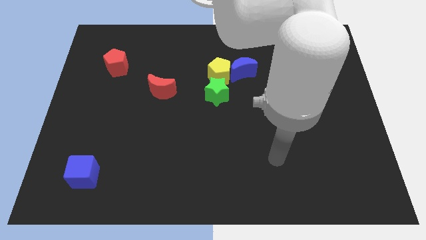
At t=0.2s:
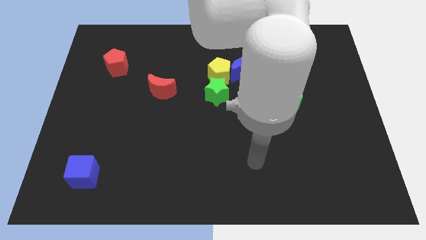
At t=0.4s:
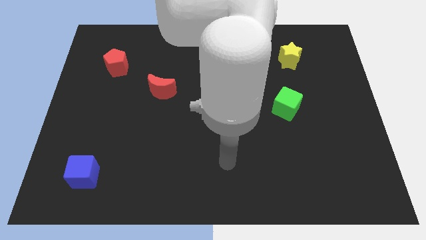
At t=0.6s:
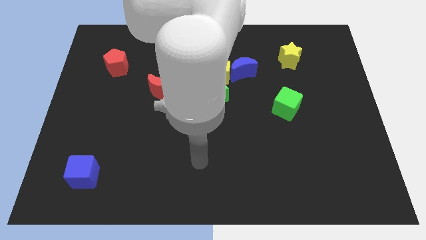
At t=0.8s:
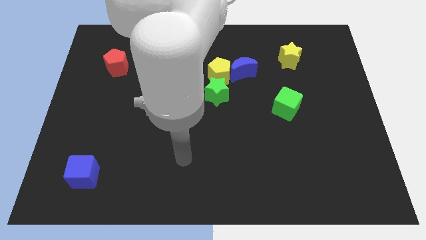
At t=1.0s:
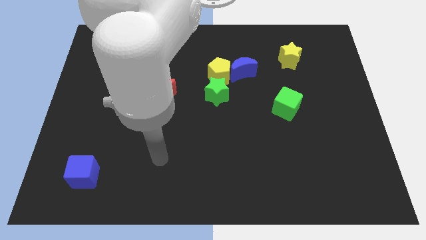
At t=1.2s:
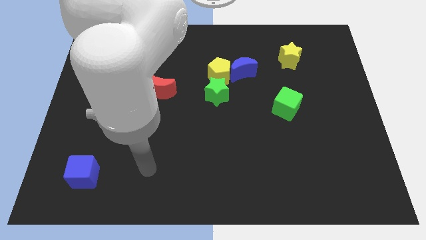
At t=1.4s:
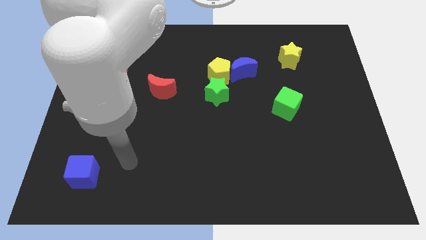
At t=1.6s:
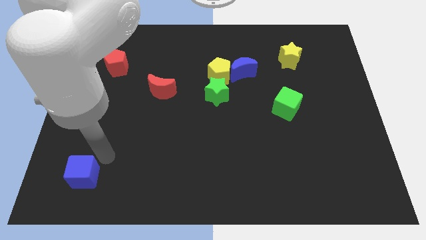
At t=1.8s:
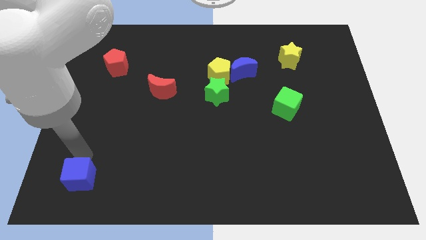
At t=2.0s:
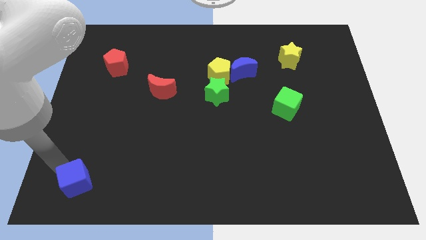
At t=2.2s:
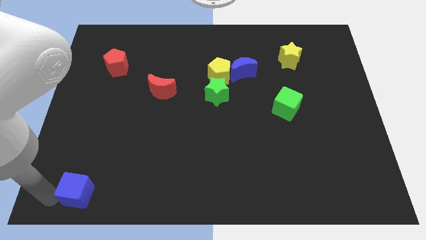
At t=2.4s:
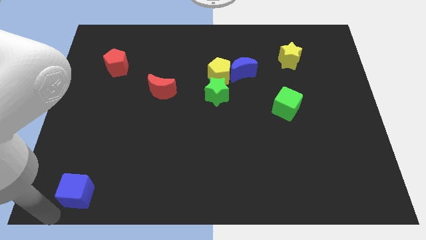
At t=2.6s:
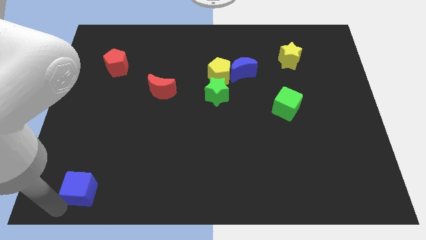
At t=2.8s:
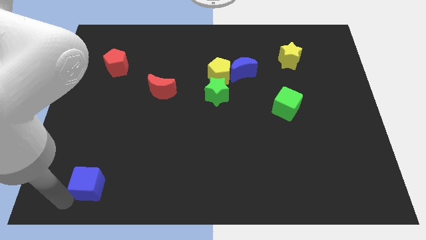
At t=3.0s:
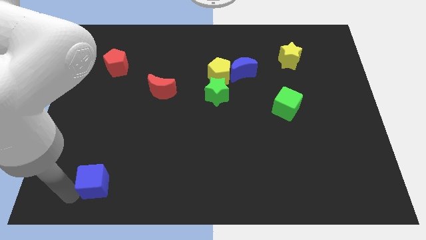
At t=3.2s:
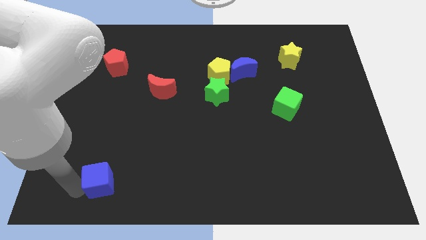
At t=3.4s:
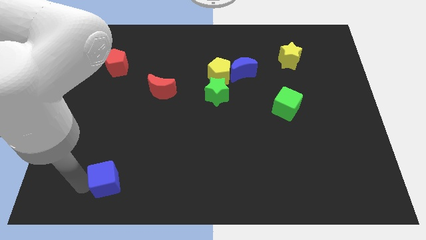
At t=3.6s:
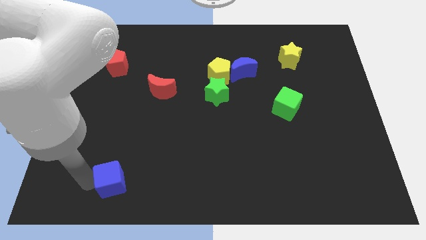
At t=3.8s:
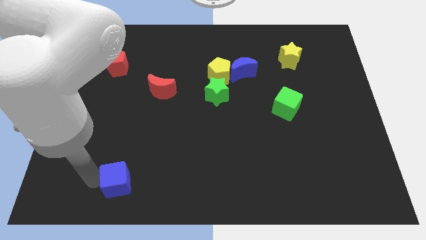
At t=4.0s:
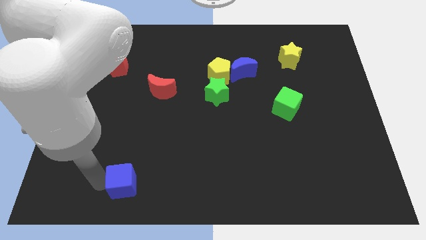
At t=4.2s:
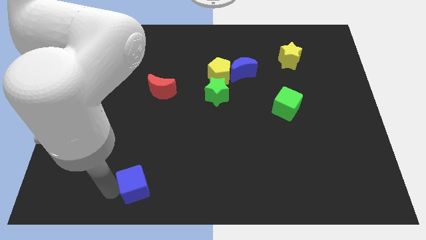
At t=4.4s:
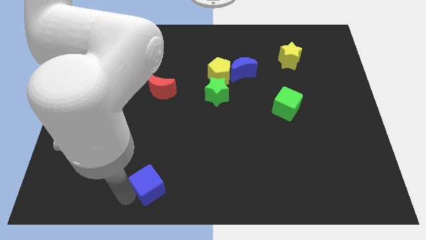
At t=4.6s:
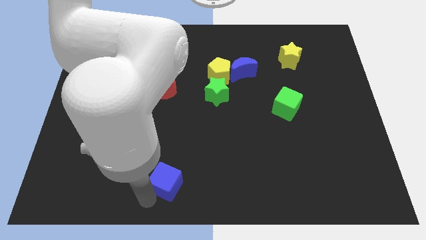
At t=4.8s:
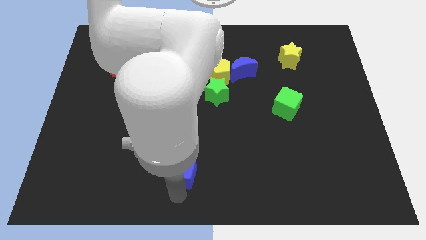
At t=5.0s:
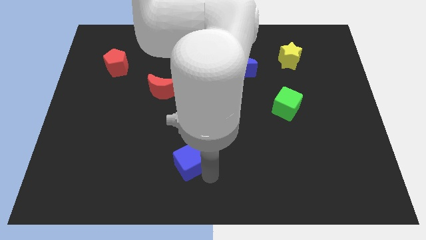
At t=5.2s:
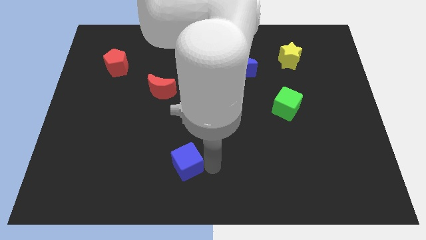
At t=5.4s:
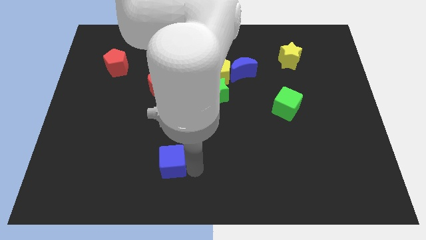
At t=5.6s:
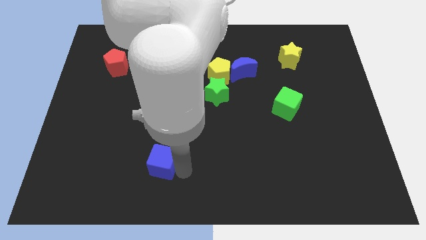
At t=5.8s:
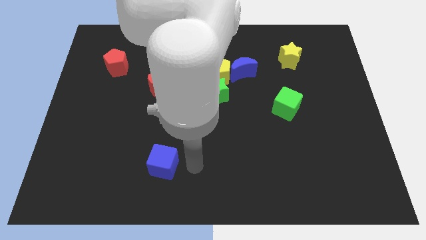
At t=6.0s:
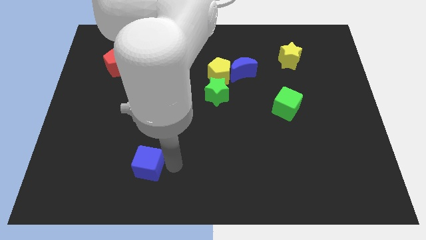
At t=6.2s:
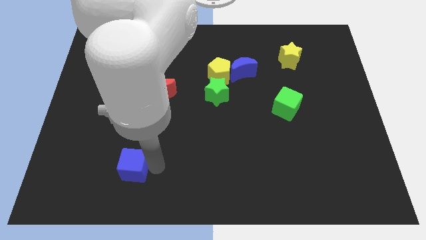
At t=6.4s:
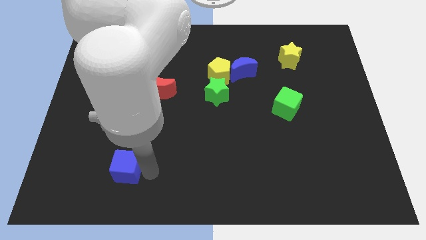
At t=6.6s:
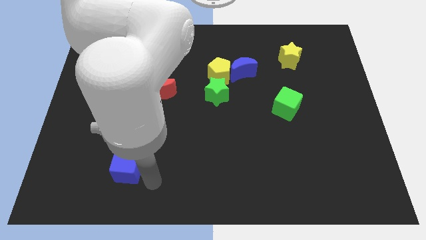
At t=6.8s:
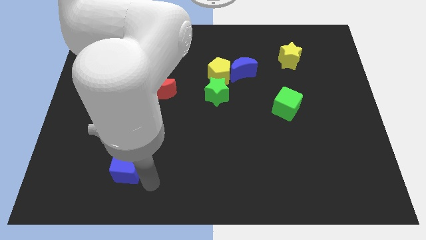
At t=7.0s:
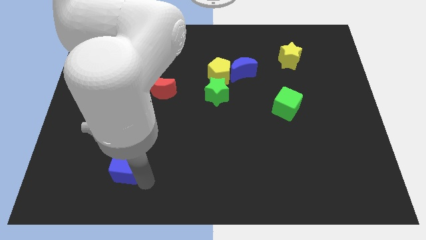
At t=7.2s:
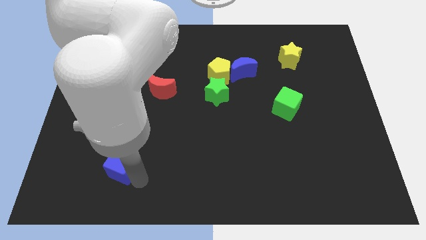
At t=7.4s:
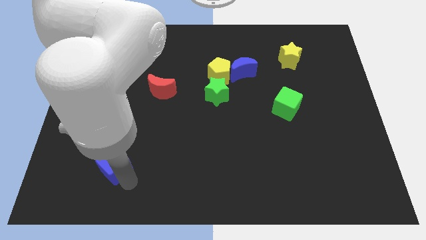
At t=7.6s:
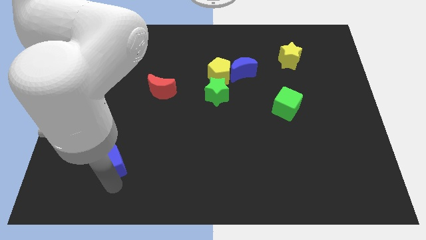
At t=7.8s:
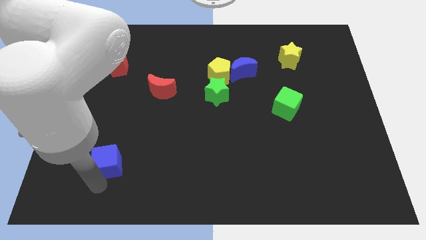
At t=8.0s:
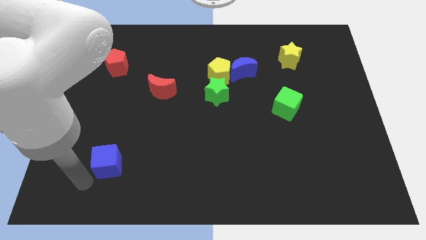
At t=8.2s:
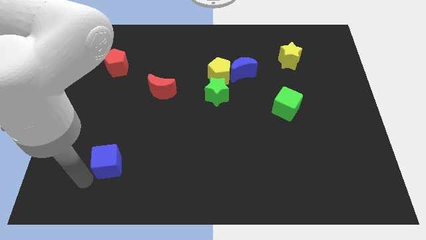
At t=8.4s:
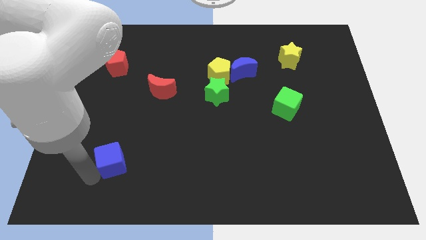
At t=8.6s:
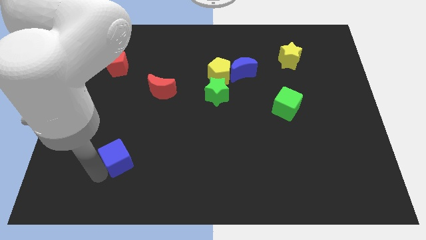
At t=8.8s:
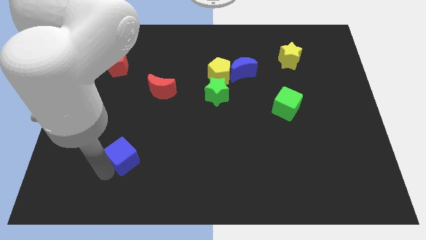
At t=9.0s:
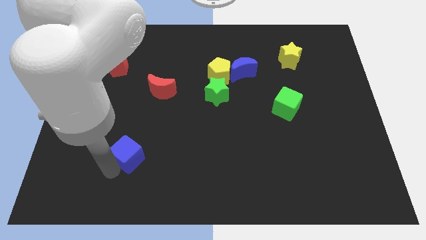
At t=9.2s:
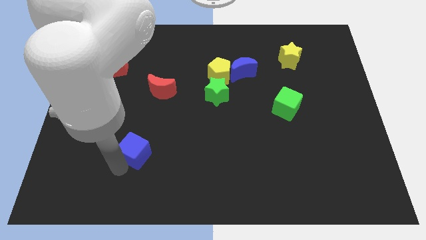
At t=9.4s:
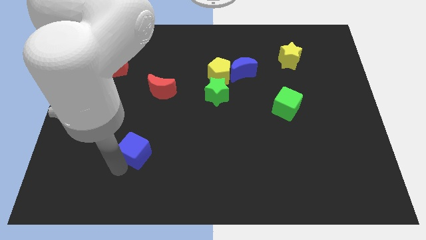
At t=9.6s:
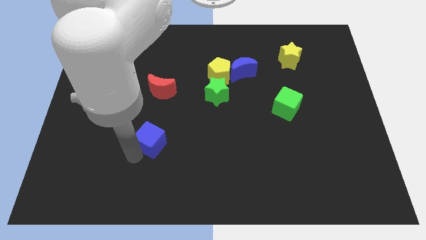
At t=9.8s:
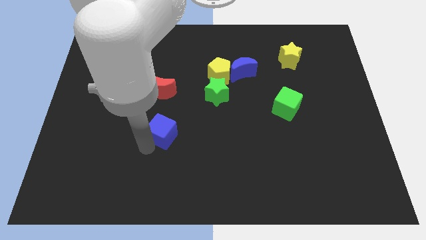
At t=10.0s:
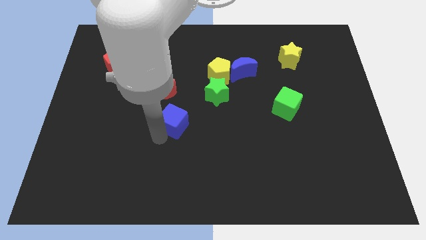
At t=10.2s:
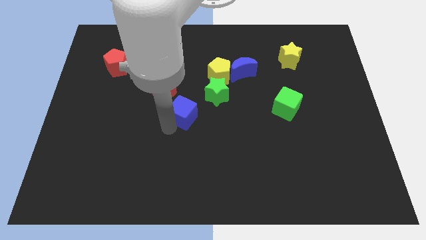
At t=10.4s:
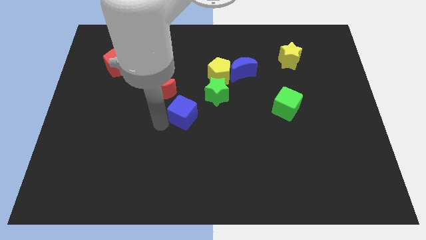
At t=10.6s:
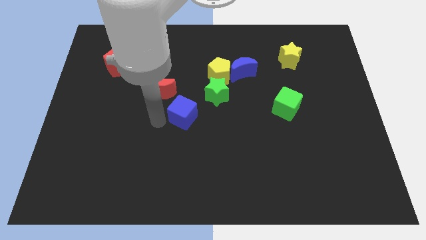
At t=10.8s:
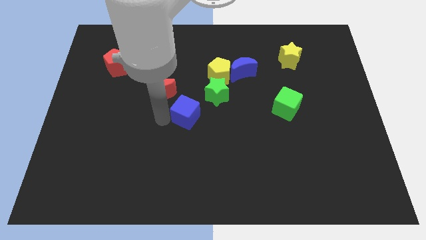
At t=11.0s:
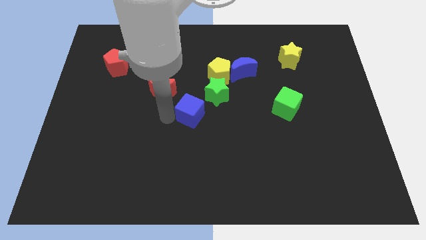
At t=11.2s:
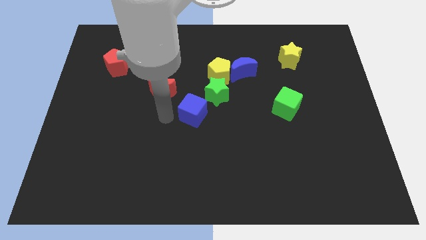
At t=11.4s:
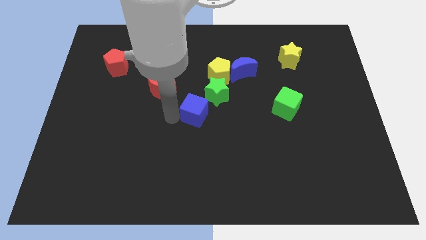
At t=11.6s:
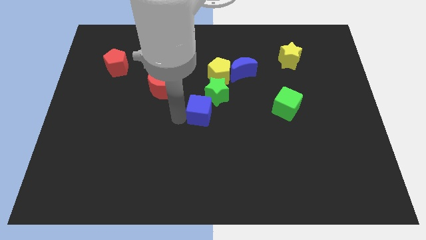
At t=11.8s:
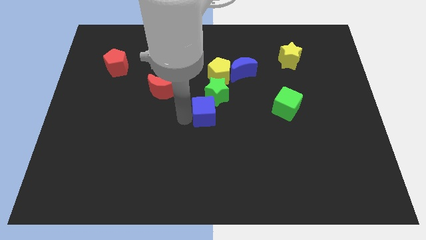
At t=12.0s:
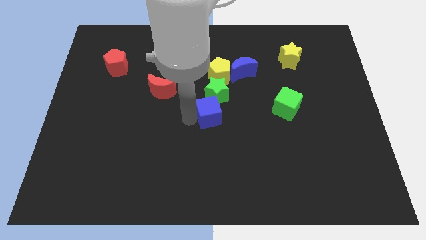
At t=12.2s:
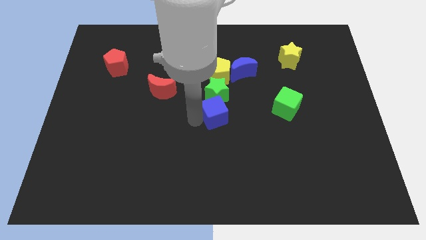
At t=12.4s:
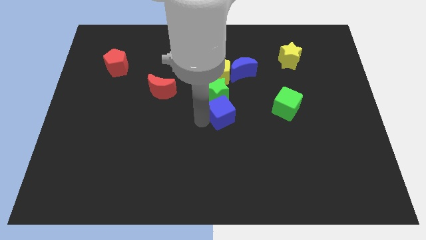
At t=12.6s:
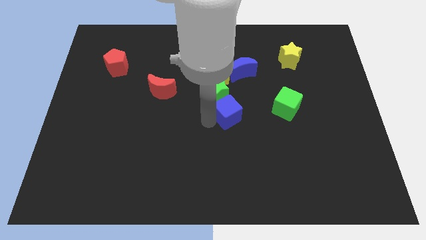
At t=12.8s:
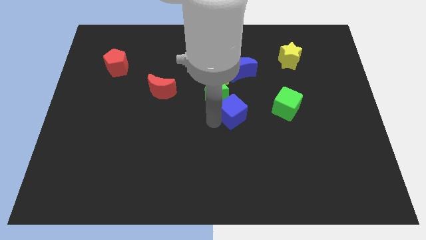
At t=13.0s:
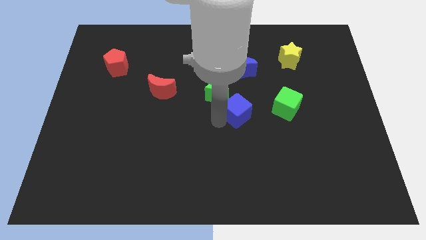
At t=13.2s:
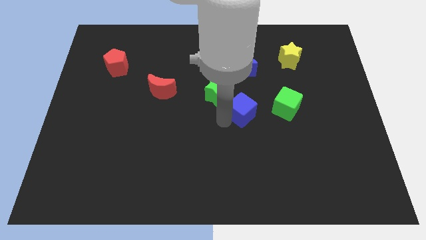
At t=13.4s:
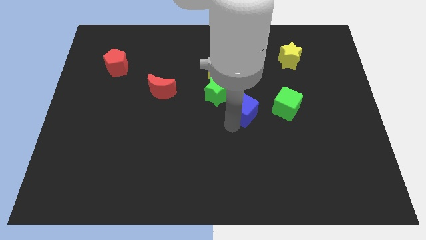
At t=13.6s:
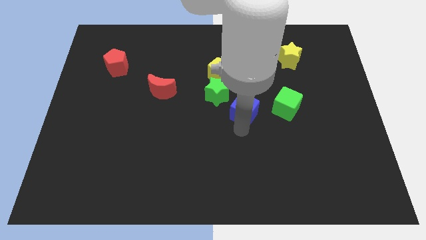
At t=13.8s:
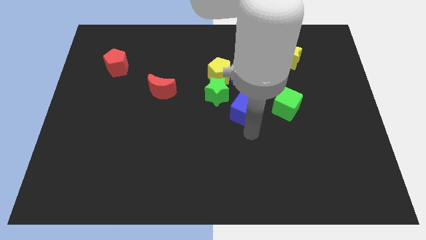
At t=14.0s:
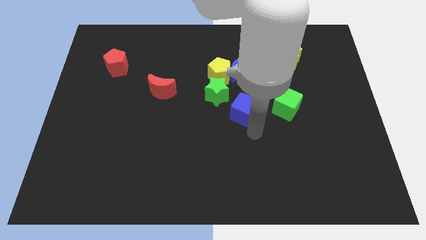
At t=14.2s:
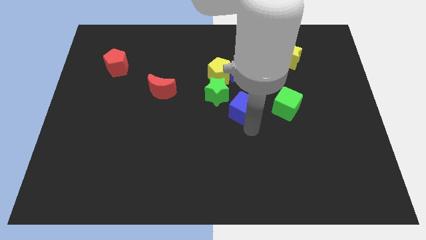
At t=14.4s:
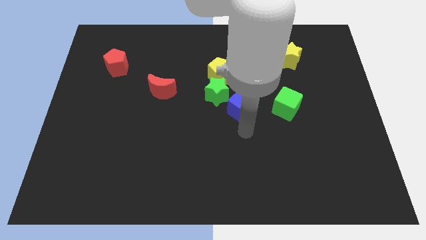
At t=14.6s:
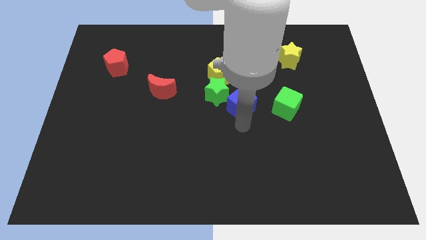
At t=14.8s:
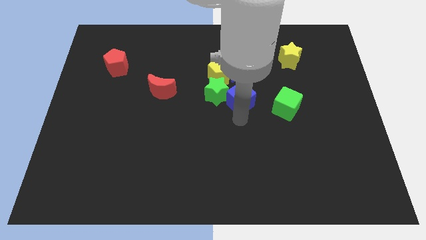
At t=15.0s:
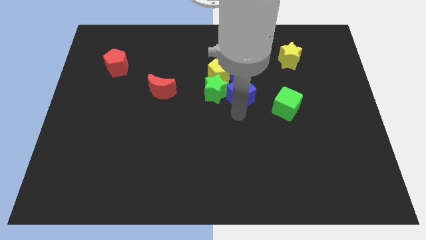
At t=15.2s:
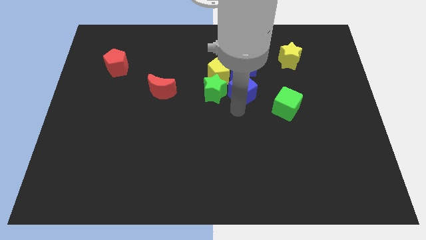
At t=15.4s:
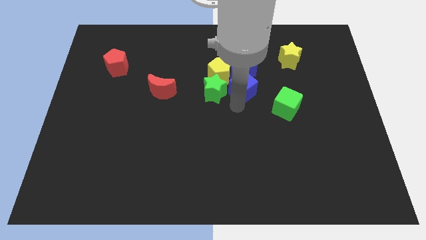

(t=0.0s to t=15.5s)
slide the blue cube towards the blue moon

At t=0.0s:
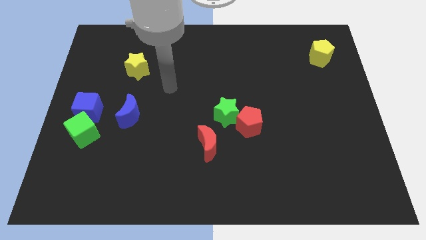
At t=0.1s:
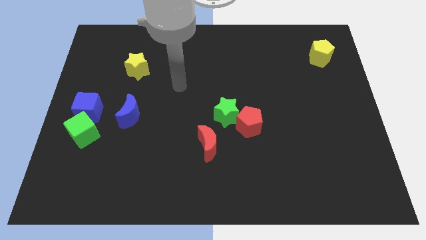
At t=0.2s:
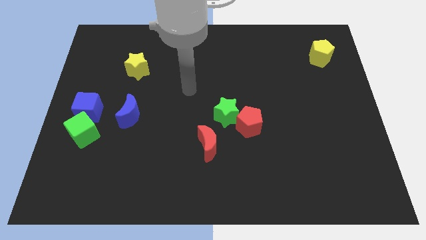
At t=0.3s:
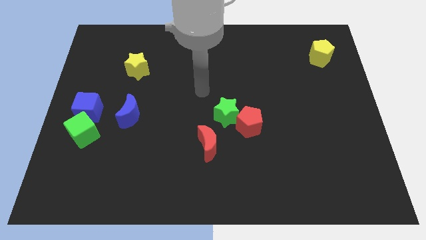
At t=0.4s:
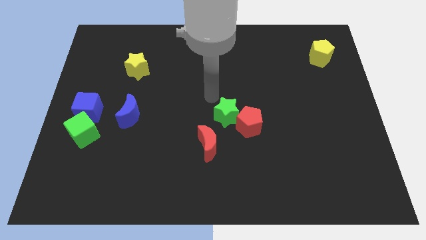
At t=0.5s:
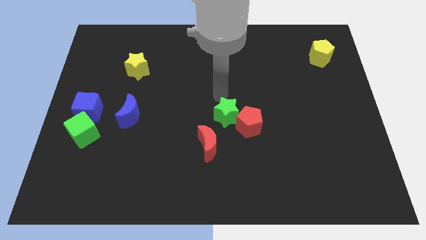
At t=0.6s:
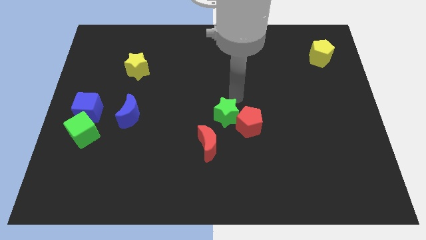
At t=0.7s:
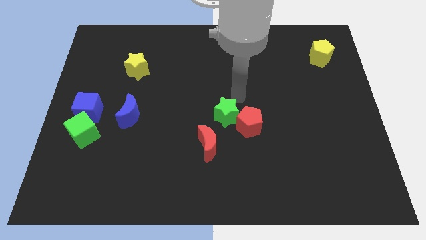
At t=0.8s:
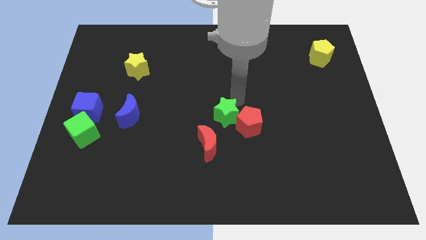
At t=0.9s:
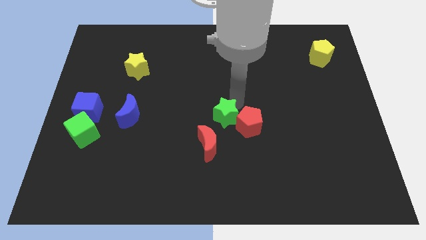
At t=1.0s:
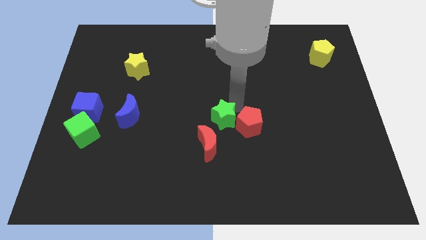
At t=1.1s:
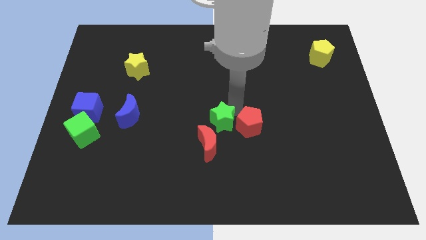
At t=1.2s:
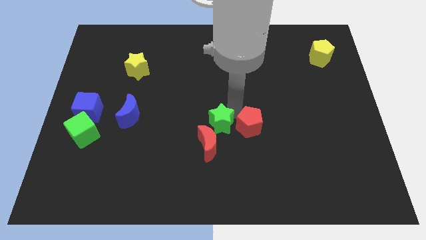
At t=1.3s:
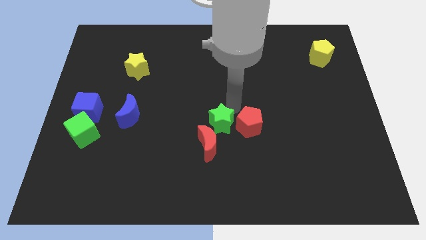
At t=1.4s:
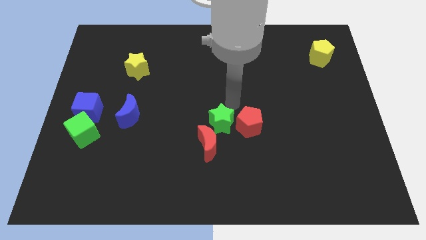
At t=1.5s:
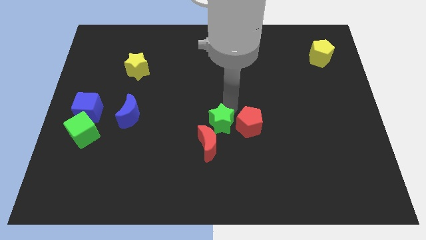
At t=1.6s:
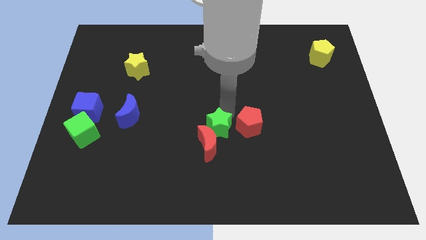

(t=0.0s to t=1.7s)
put the green star next to the red moon
